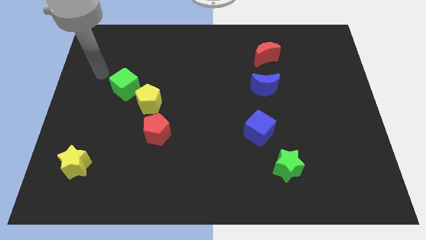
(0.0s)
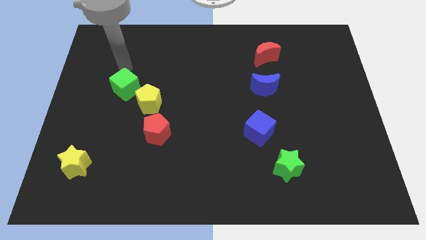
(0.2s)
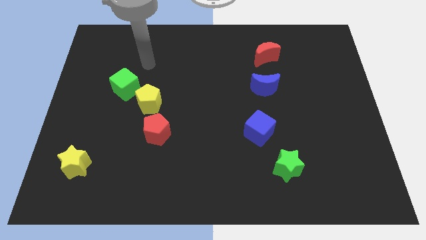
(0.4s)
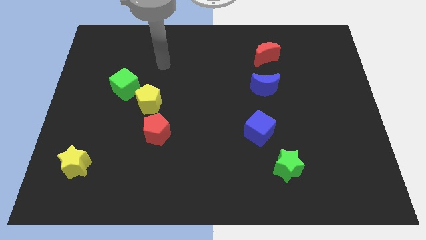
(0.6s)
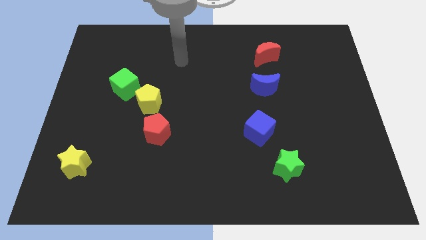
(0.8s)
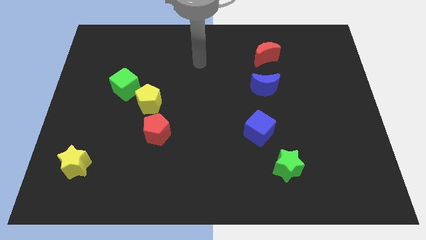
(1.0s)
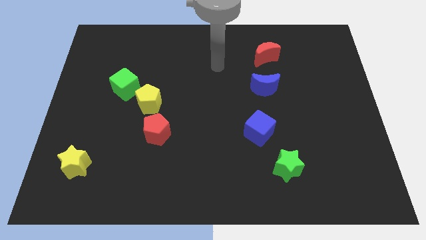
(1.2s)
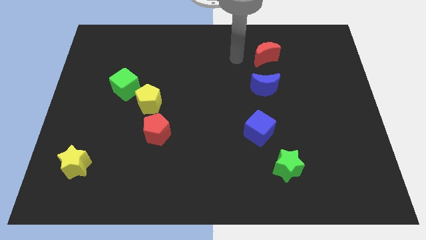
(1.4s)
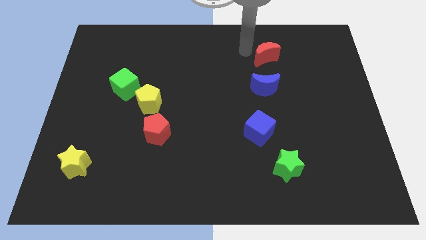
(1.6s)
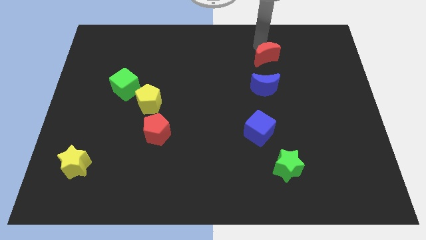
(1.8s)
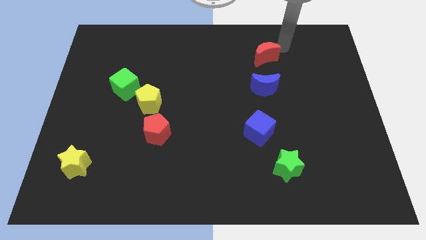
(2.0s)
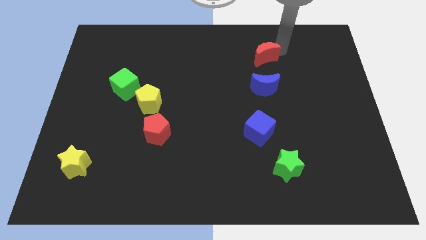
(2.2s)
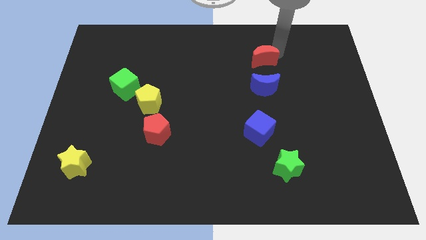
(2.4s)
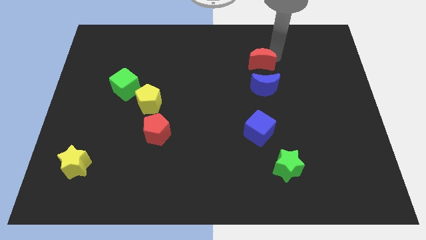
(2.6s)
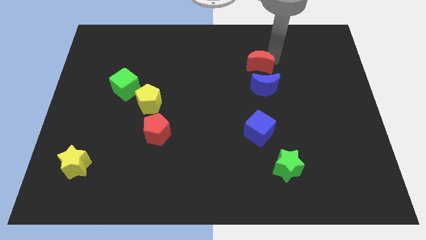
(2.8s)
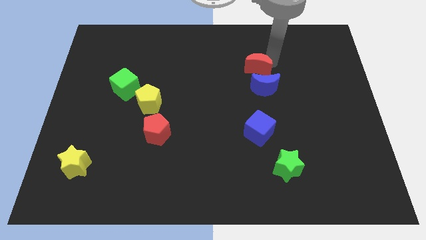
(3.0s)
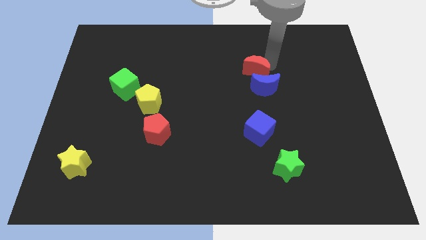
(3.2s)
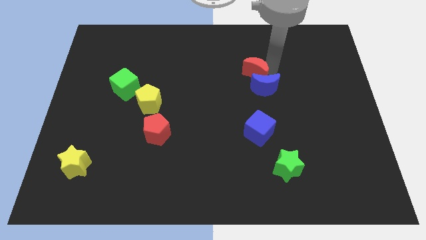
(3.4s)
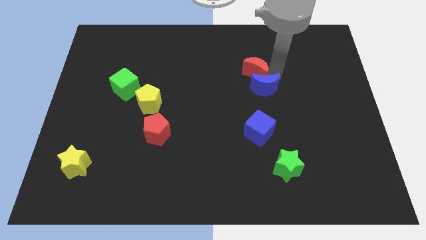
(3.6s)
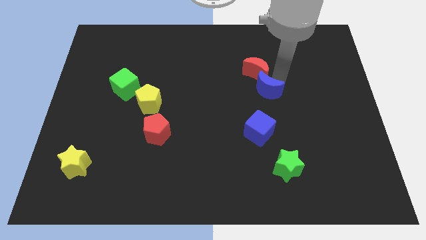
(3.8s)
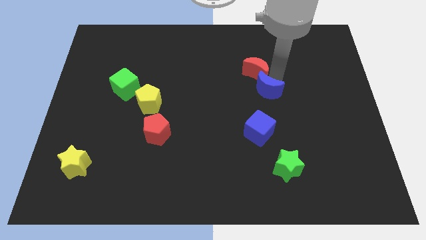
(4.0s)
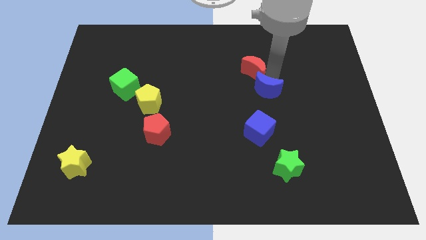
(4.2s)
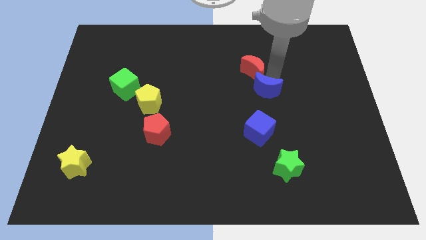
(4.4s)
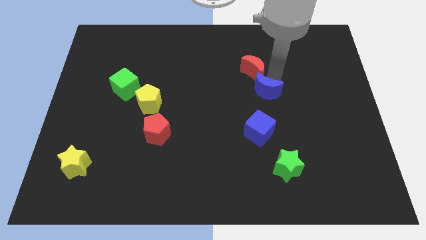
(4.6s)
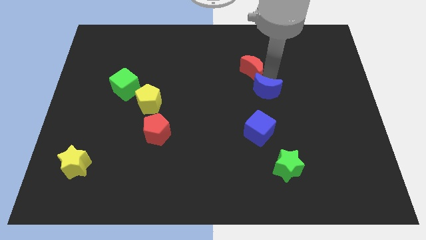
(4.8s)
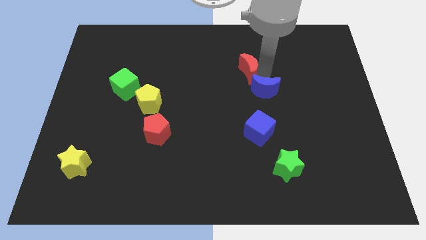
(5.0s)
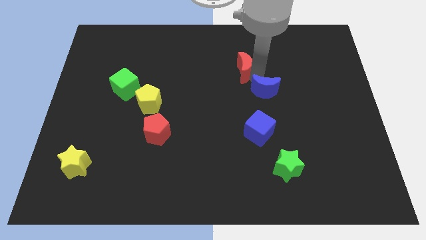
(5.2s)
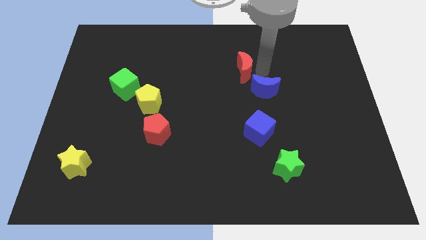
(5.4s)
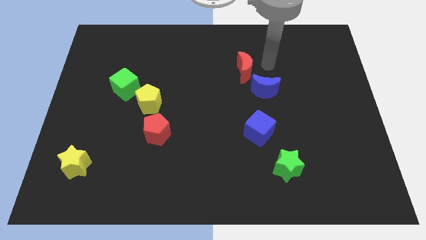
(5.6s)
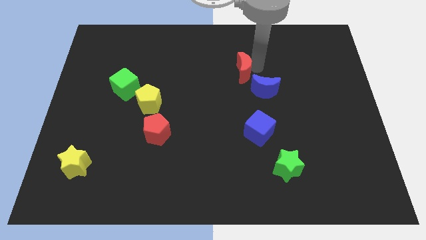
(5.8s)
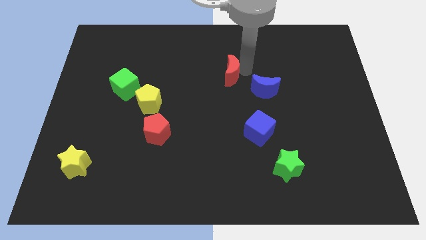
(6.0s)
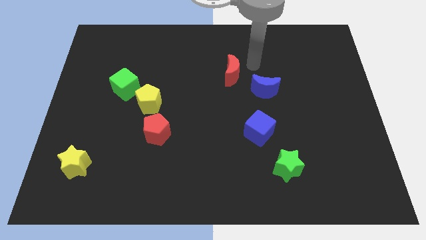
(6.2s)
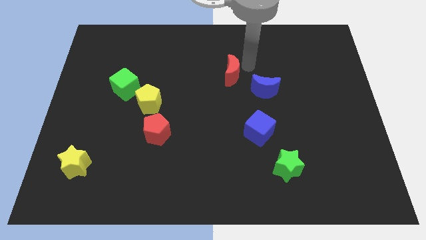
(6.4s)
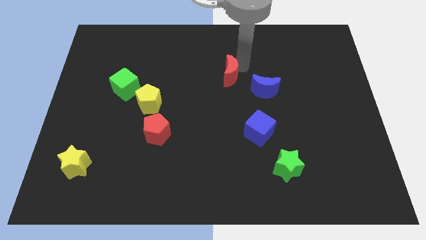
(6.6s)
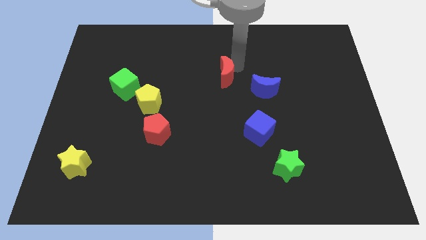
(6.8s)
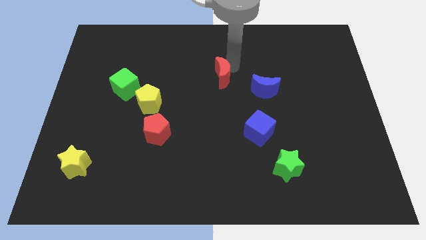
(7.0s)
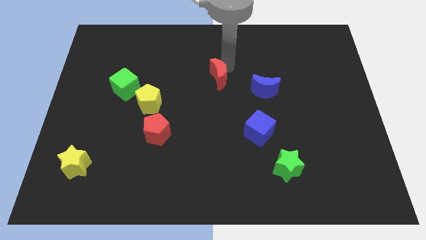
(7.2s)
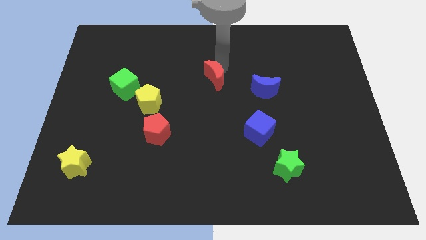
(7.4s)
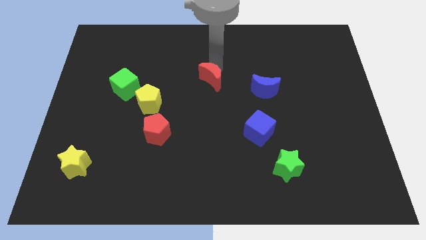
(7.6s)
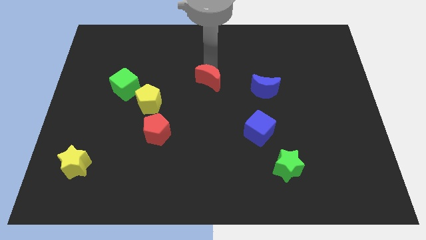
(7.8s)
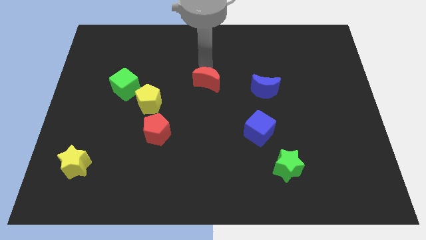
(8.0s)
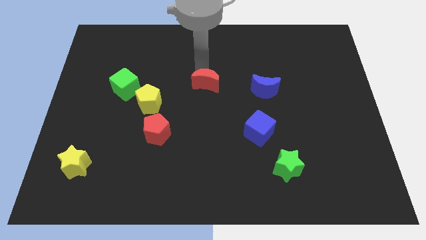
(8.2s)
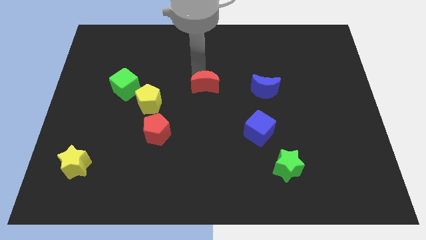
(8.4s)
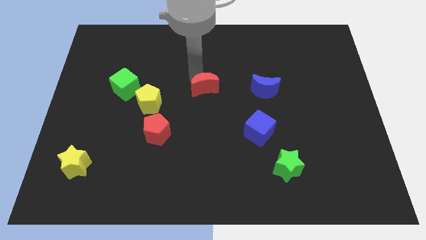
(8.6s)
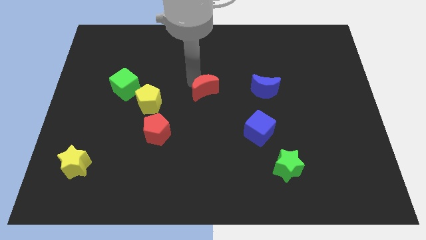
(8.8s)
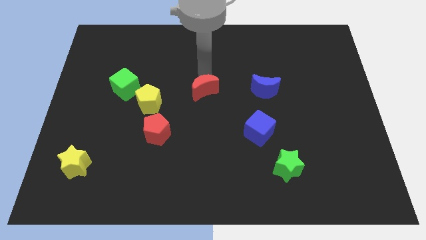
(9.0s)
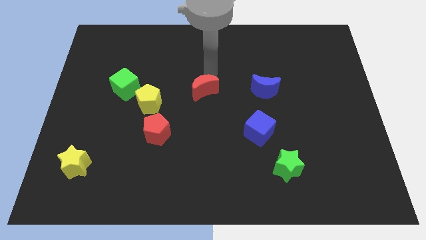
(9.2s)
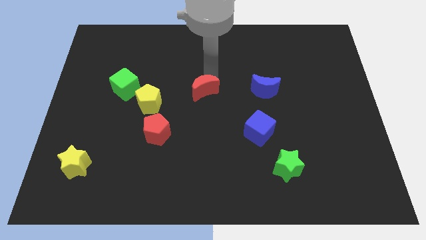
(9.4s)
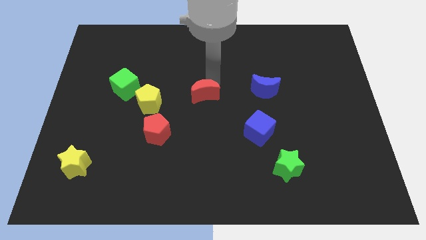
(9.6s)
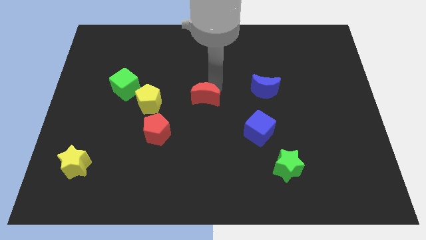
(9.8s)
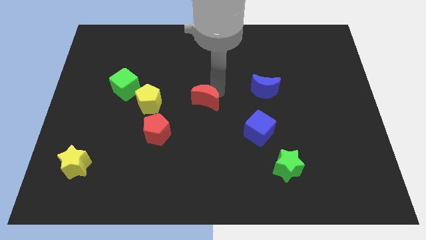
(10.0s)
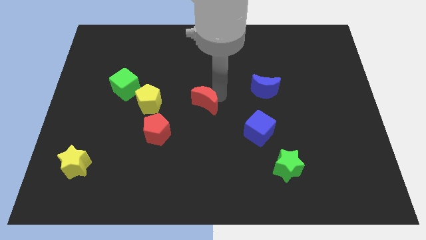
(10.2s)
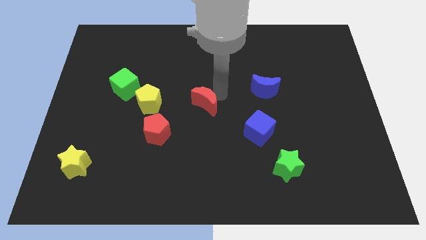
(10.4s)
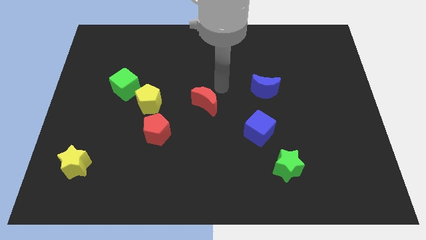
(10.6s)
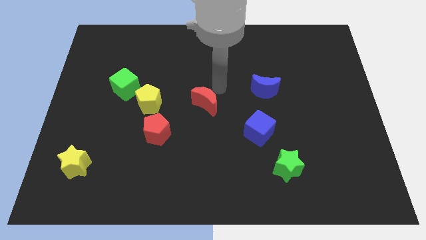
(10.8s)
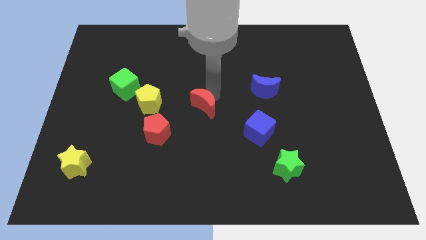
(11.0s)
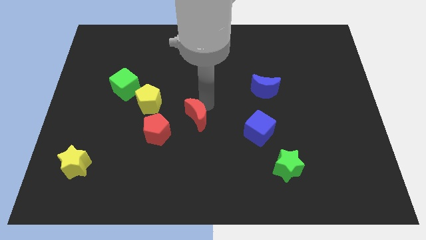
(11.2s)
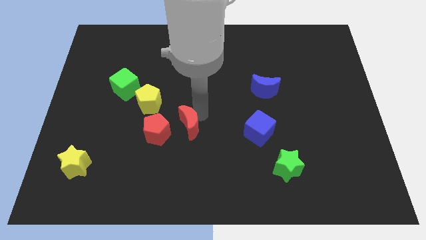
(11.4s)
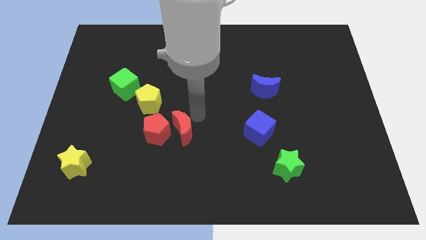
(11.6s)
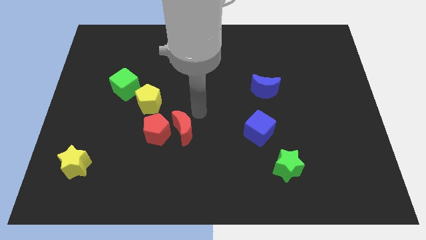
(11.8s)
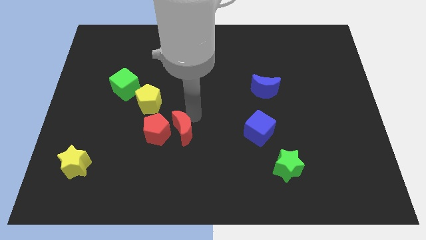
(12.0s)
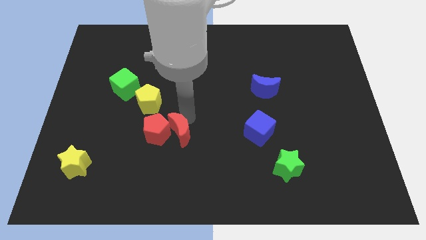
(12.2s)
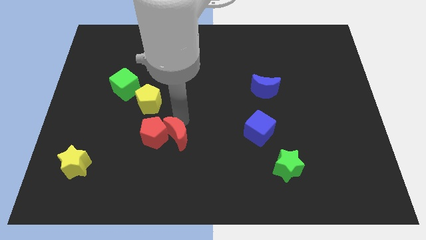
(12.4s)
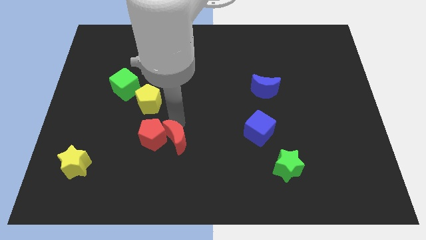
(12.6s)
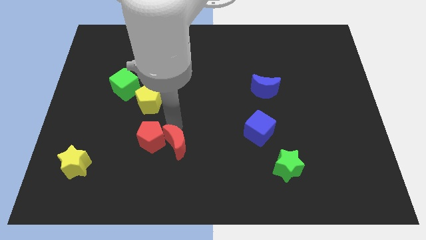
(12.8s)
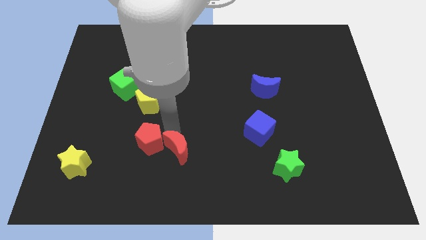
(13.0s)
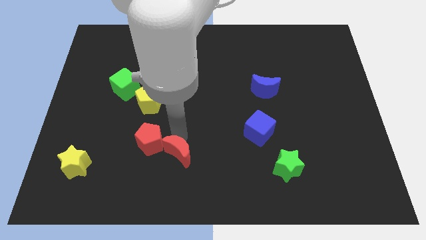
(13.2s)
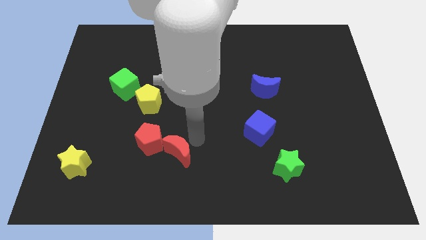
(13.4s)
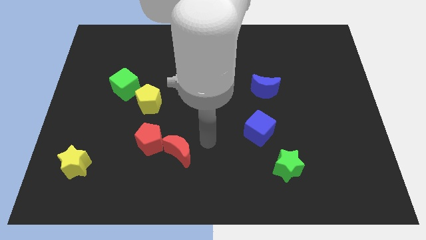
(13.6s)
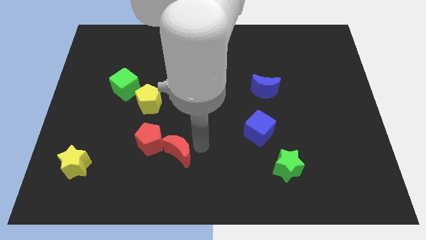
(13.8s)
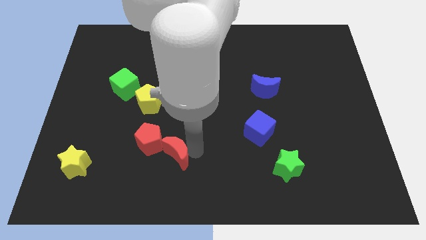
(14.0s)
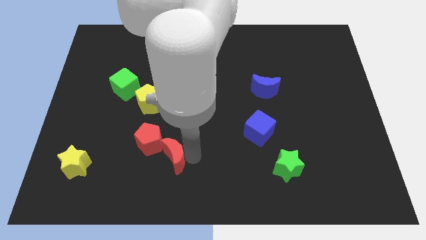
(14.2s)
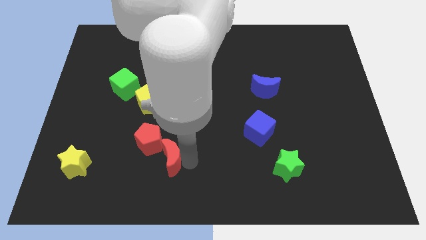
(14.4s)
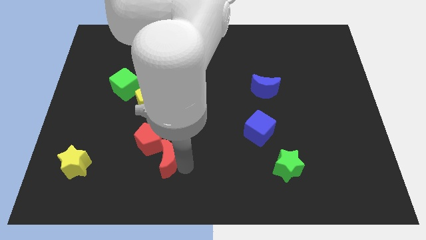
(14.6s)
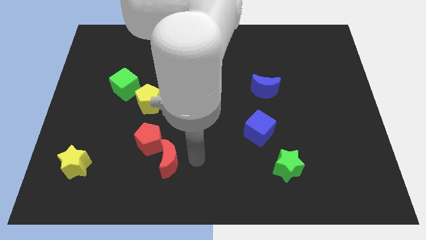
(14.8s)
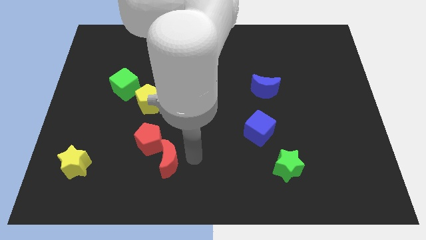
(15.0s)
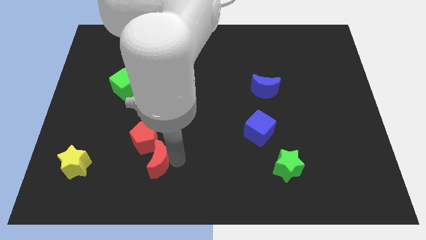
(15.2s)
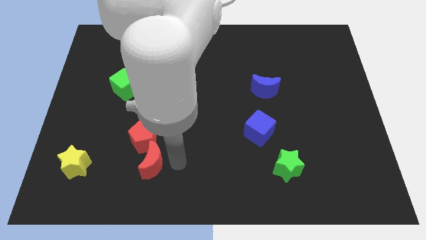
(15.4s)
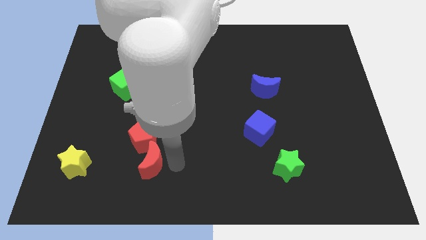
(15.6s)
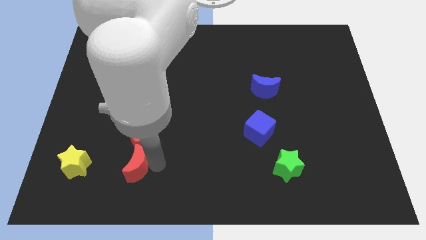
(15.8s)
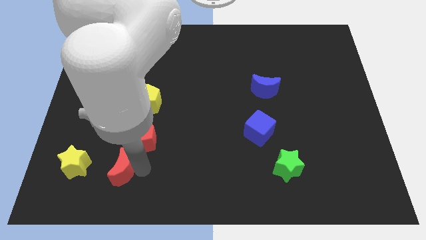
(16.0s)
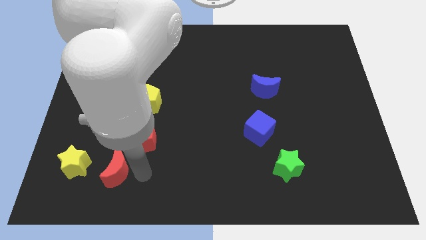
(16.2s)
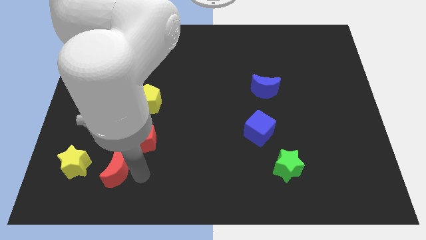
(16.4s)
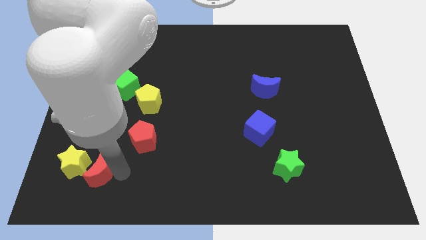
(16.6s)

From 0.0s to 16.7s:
move the red moon next to the yellow star
